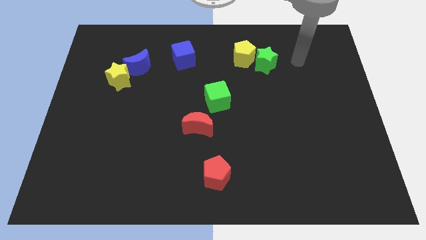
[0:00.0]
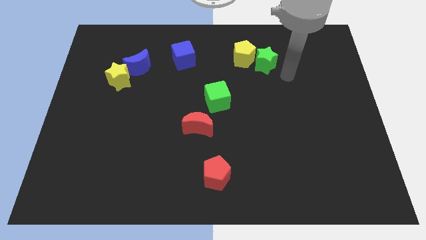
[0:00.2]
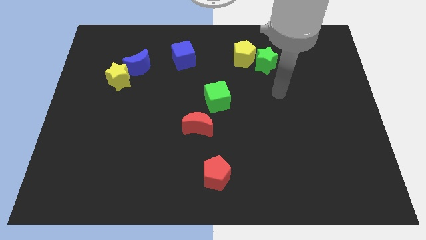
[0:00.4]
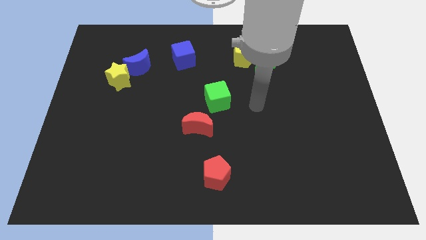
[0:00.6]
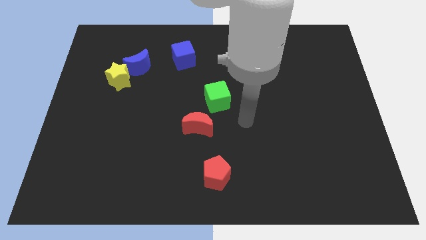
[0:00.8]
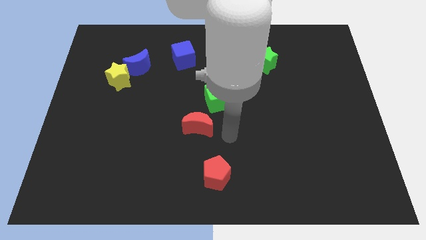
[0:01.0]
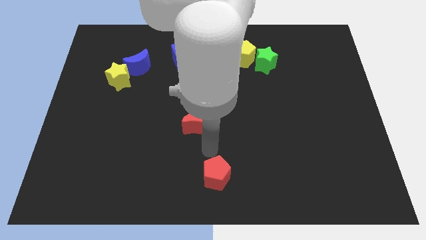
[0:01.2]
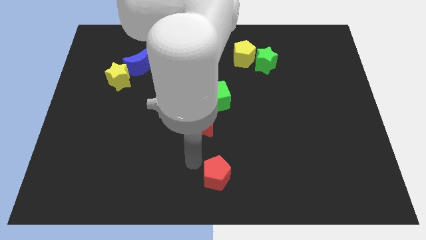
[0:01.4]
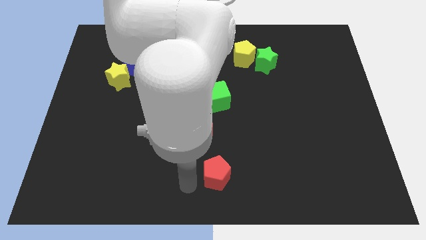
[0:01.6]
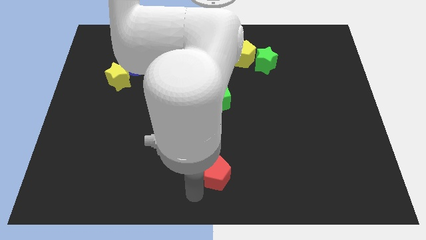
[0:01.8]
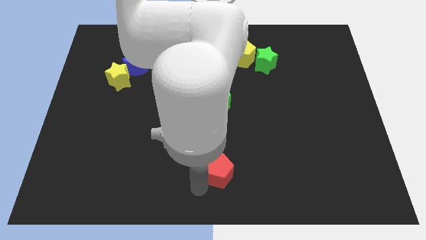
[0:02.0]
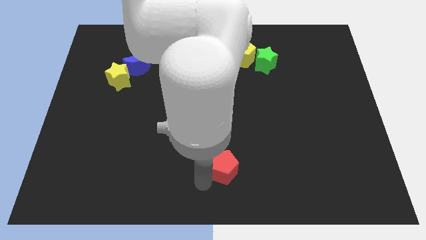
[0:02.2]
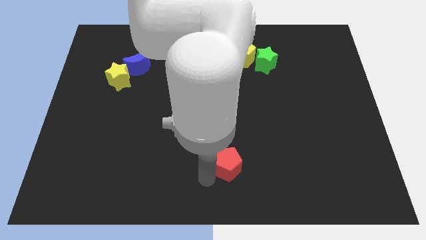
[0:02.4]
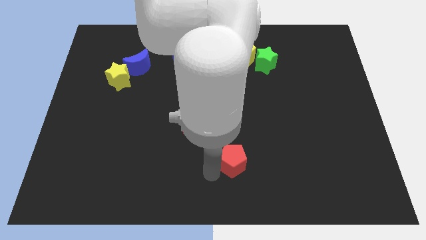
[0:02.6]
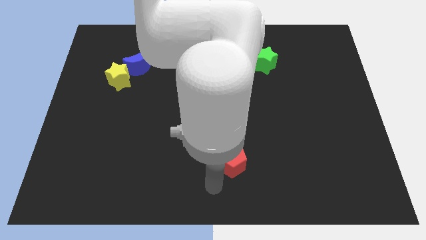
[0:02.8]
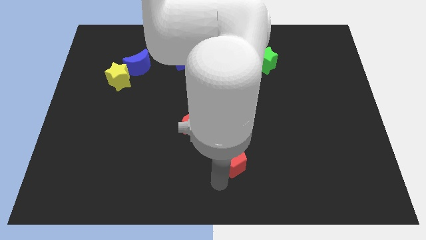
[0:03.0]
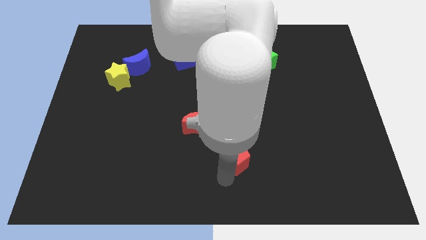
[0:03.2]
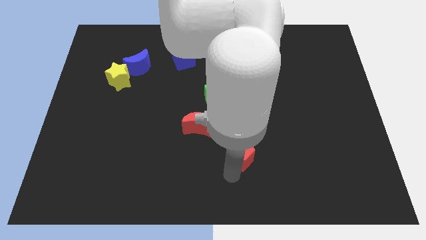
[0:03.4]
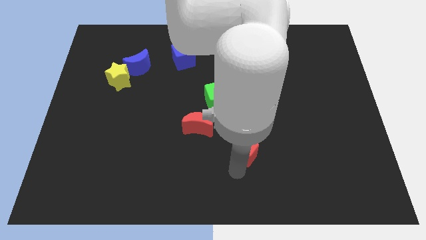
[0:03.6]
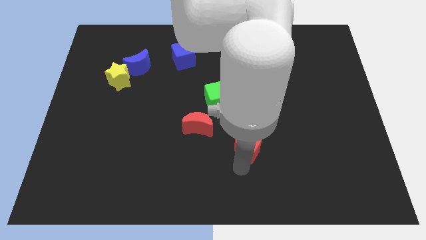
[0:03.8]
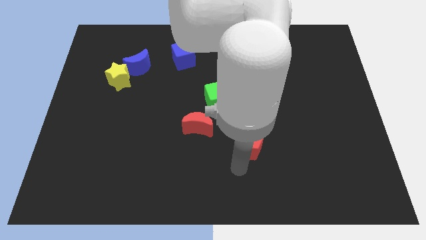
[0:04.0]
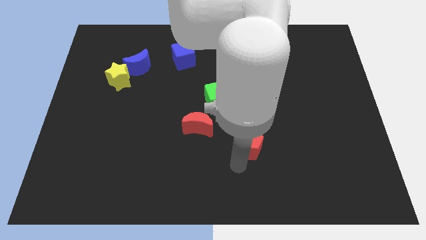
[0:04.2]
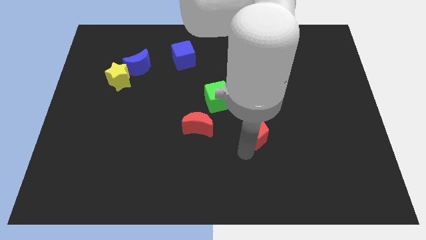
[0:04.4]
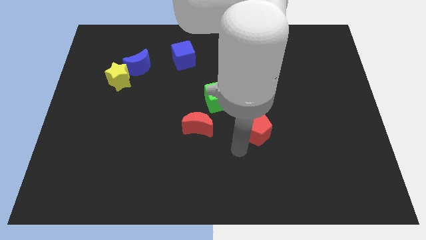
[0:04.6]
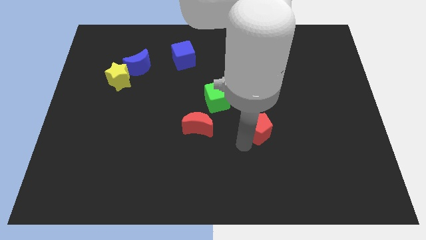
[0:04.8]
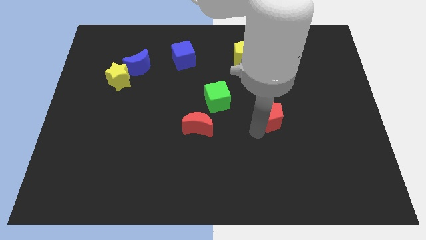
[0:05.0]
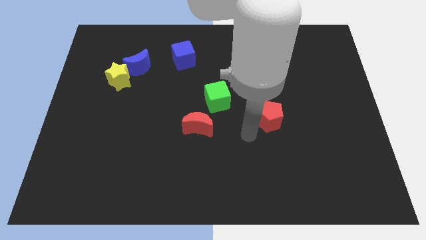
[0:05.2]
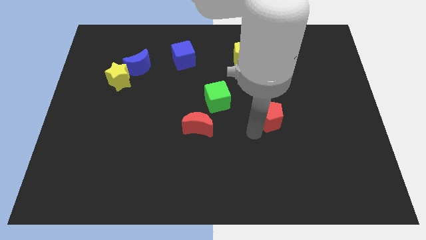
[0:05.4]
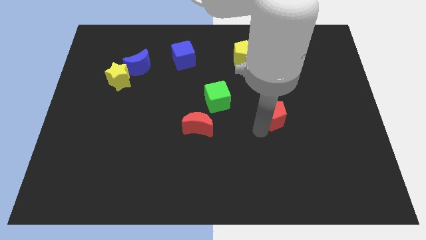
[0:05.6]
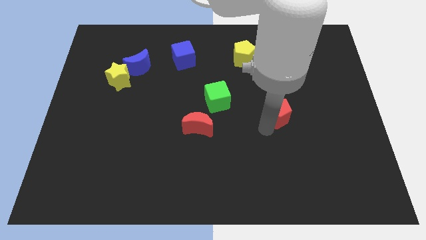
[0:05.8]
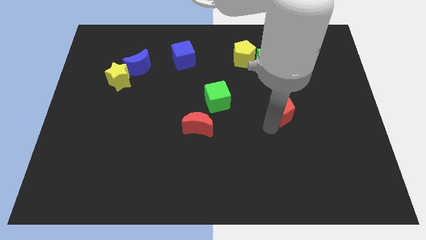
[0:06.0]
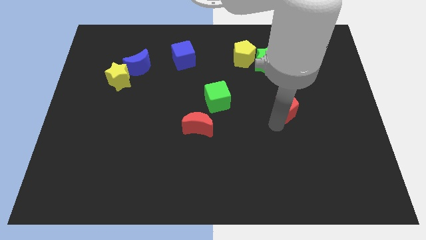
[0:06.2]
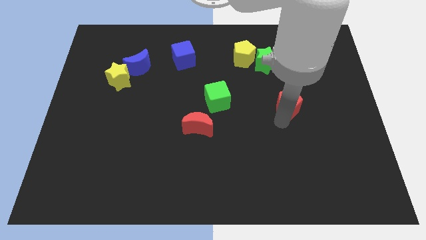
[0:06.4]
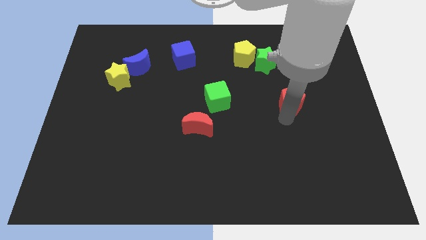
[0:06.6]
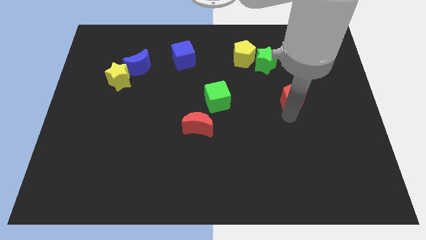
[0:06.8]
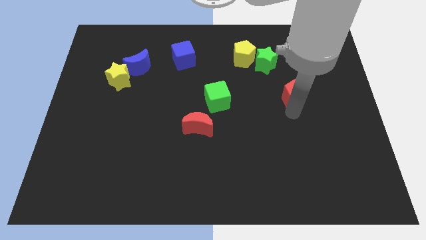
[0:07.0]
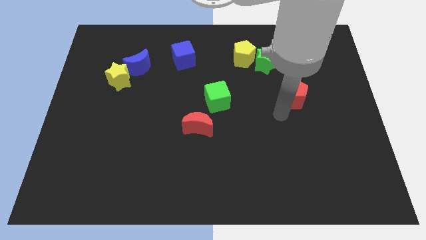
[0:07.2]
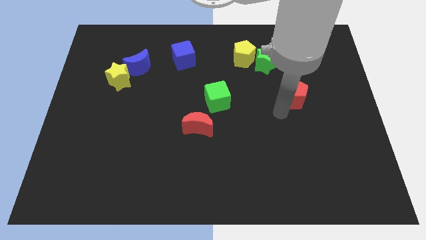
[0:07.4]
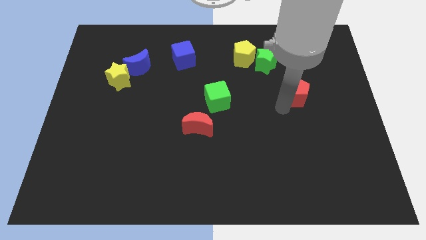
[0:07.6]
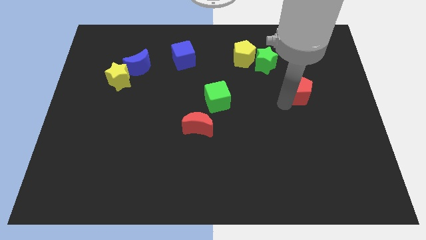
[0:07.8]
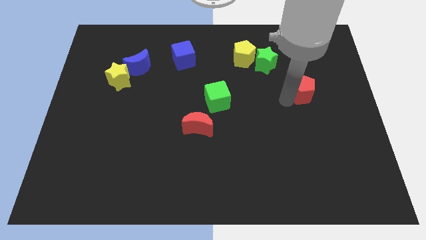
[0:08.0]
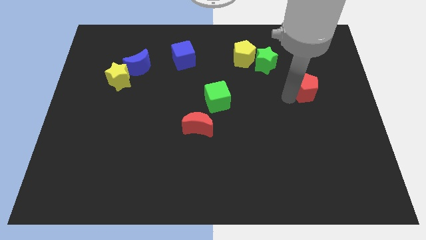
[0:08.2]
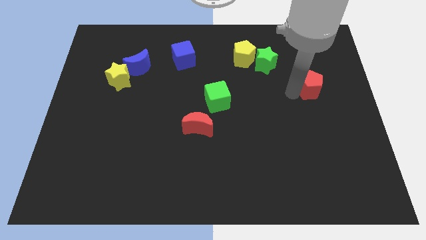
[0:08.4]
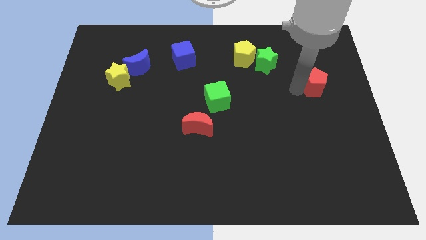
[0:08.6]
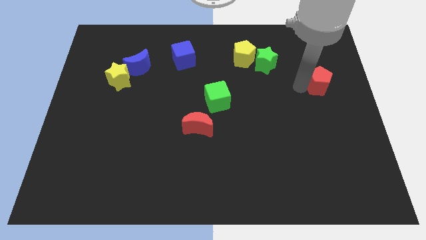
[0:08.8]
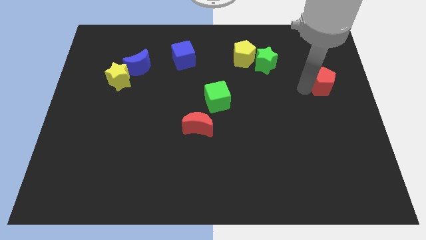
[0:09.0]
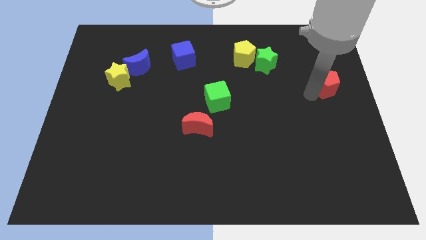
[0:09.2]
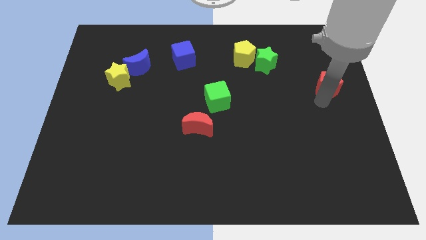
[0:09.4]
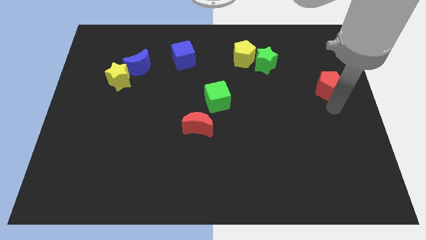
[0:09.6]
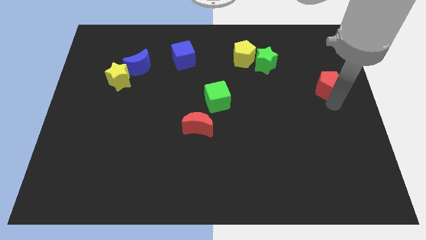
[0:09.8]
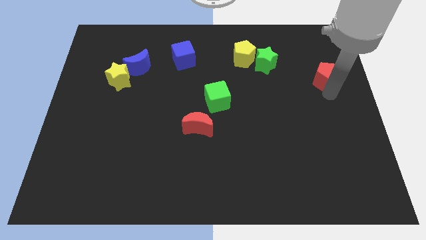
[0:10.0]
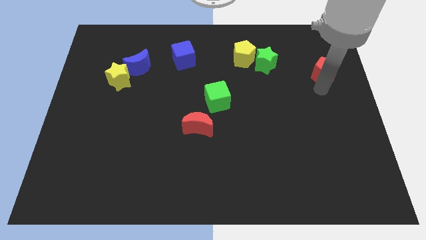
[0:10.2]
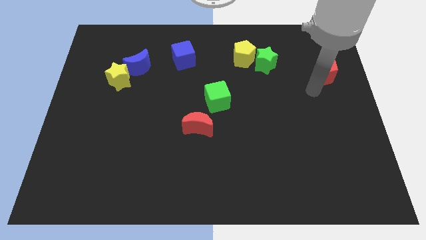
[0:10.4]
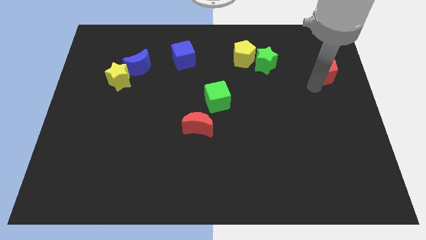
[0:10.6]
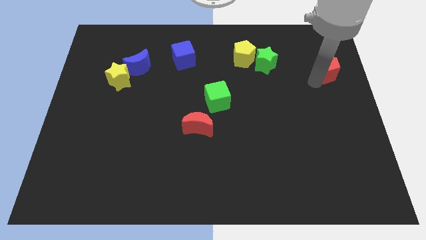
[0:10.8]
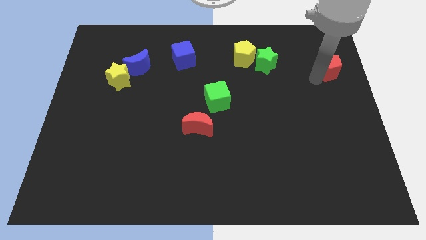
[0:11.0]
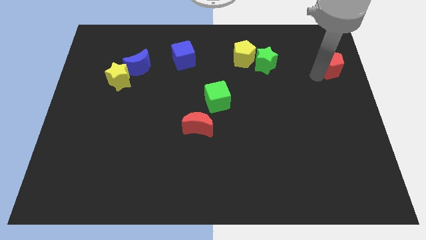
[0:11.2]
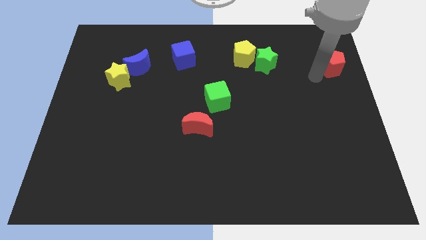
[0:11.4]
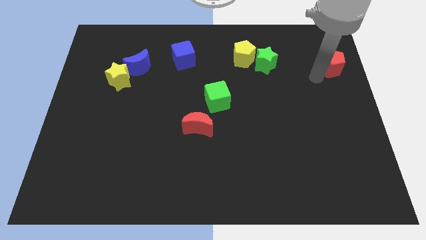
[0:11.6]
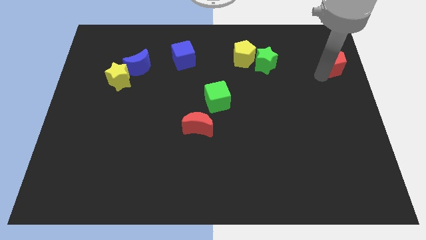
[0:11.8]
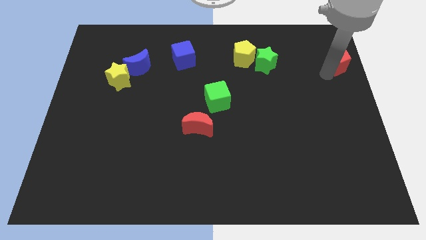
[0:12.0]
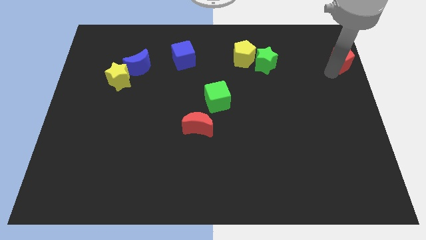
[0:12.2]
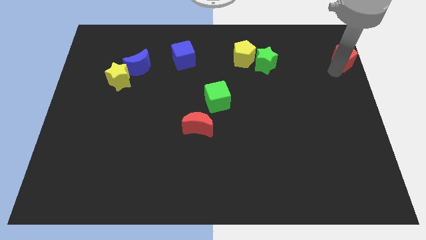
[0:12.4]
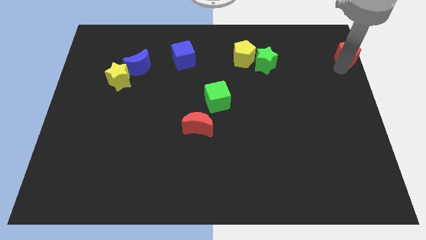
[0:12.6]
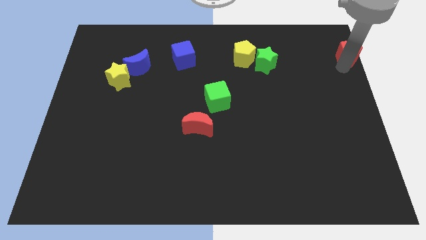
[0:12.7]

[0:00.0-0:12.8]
put the red pentagon to the top right

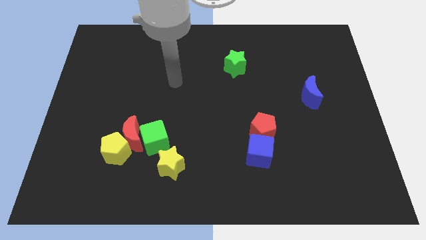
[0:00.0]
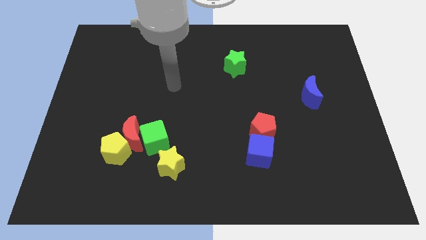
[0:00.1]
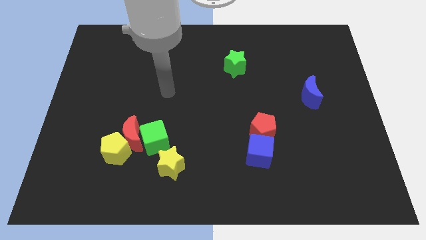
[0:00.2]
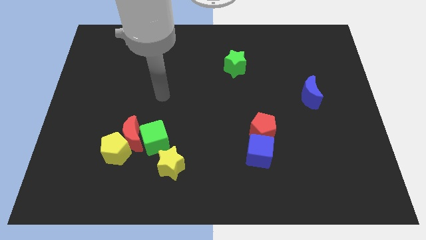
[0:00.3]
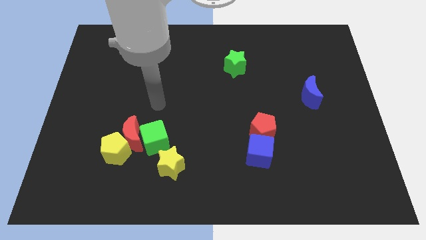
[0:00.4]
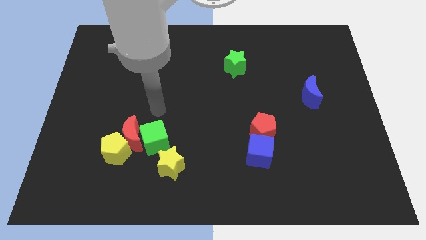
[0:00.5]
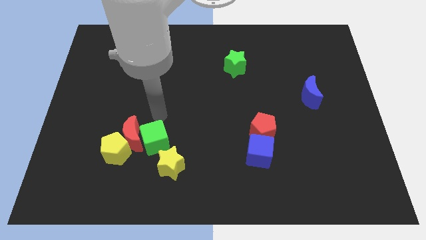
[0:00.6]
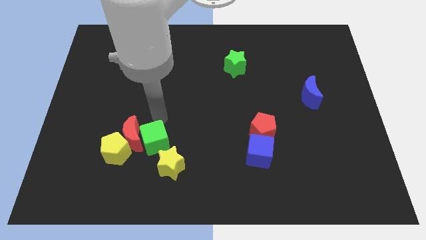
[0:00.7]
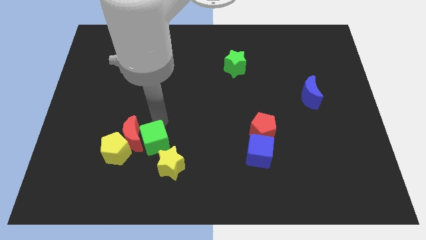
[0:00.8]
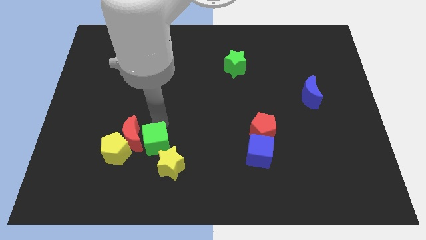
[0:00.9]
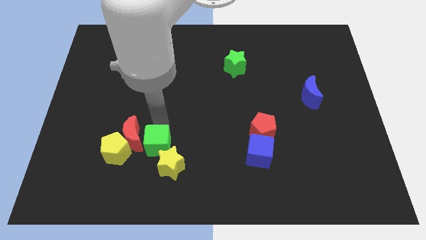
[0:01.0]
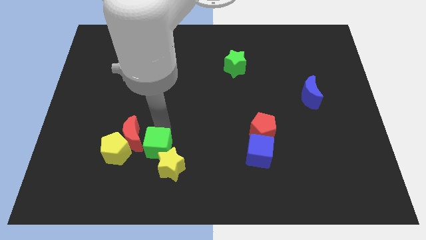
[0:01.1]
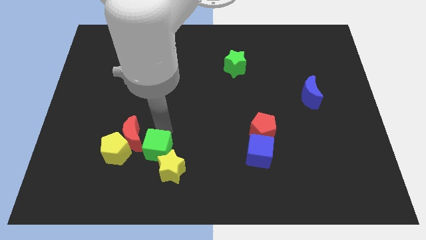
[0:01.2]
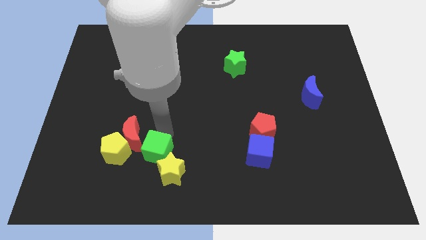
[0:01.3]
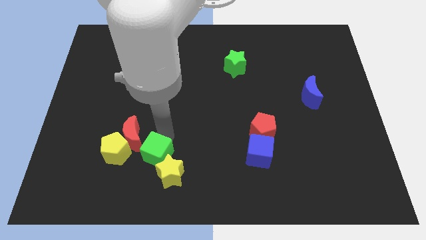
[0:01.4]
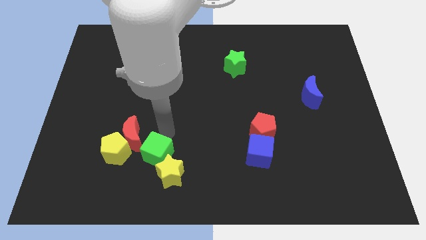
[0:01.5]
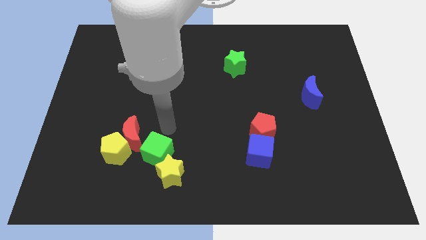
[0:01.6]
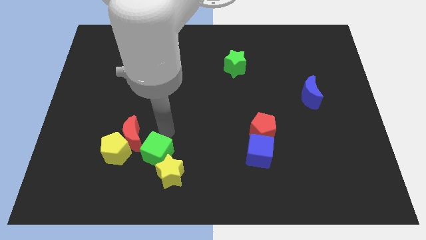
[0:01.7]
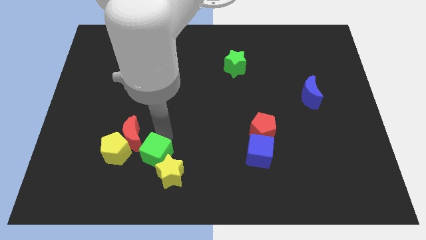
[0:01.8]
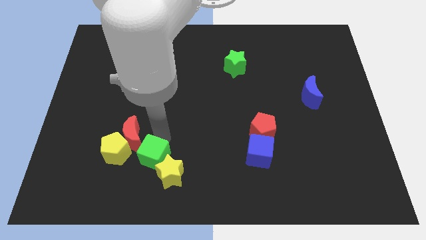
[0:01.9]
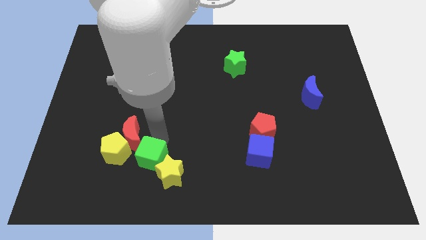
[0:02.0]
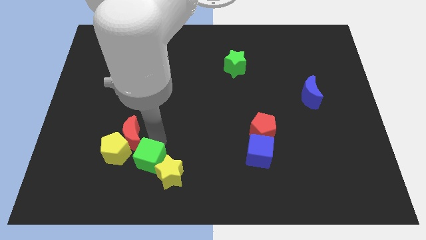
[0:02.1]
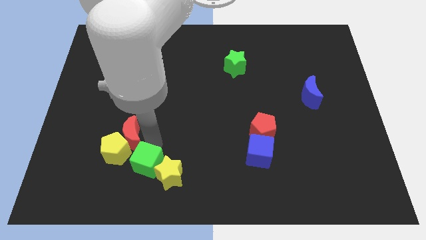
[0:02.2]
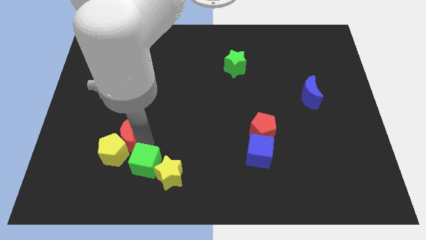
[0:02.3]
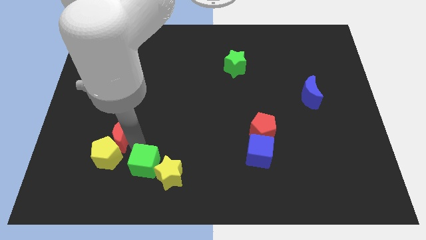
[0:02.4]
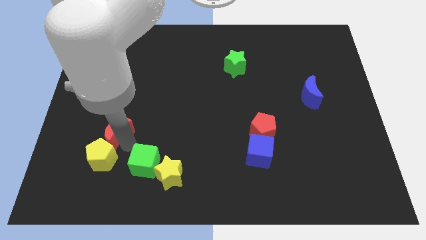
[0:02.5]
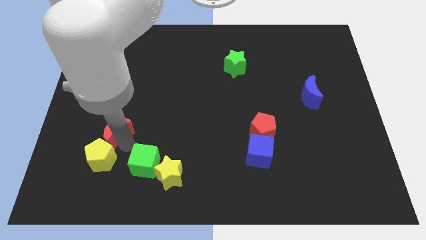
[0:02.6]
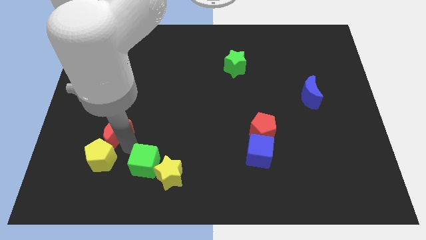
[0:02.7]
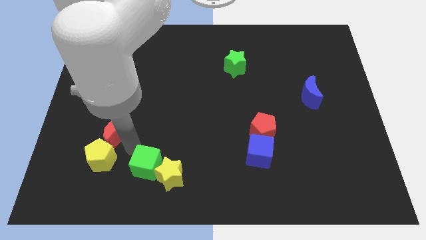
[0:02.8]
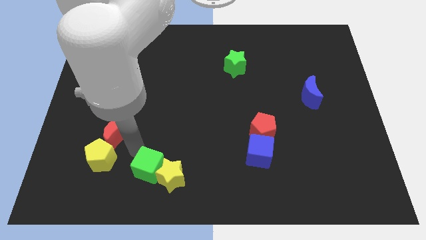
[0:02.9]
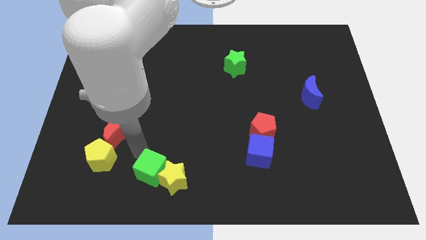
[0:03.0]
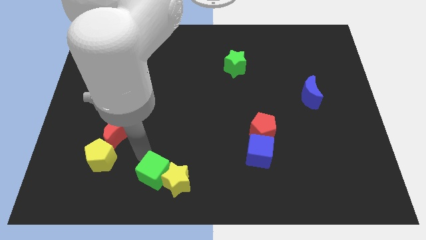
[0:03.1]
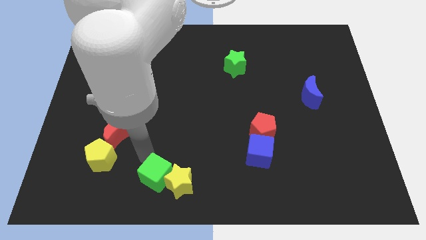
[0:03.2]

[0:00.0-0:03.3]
push the green cube to the bottom
